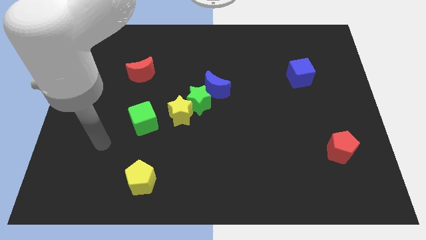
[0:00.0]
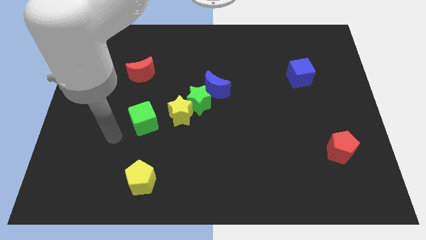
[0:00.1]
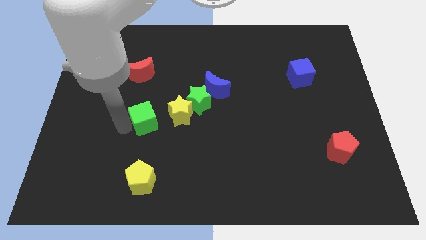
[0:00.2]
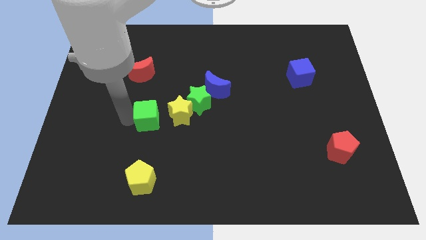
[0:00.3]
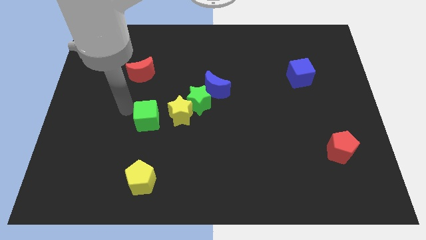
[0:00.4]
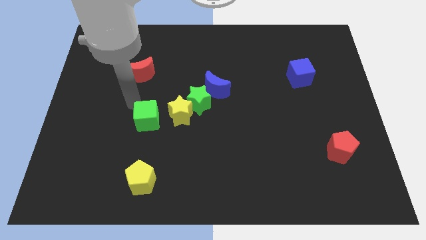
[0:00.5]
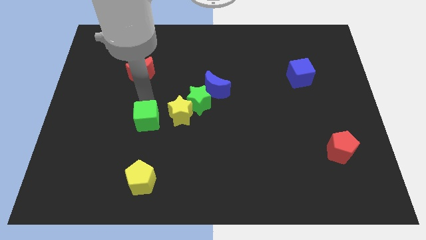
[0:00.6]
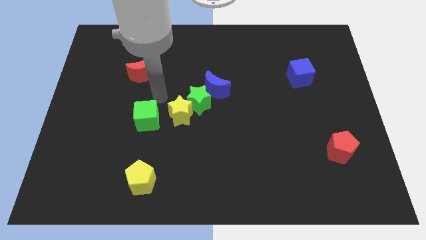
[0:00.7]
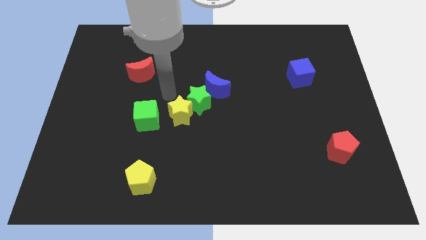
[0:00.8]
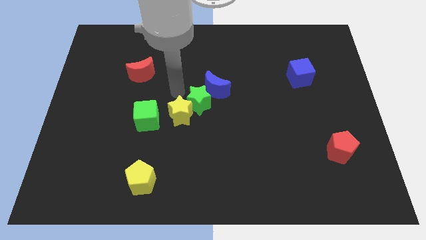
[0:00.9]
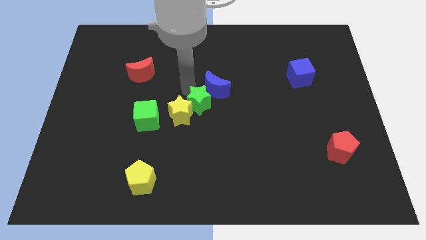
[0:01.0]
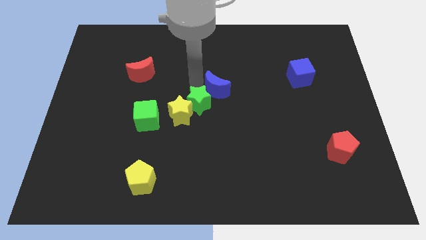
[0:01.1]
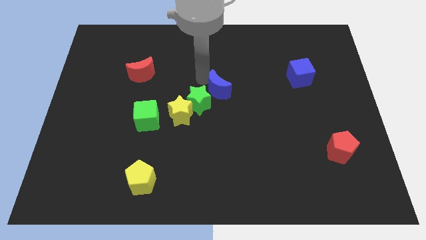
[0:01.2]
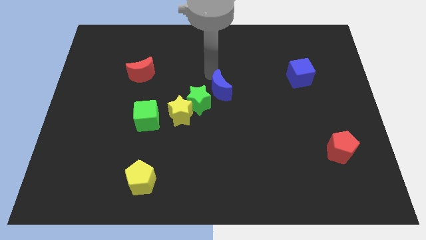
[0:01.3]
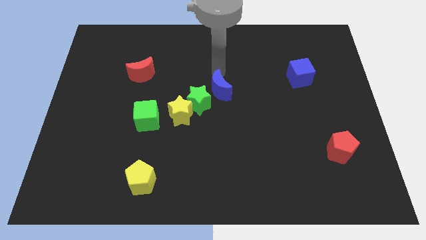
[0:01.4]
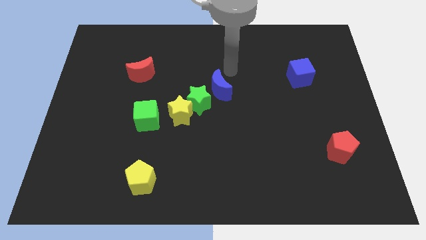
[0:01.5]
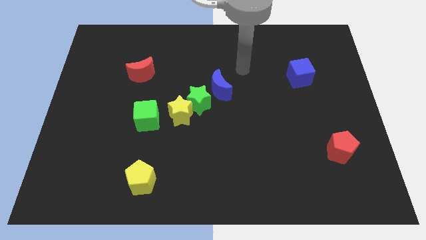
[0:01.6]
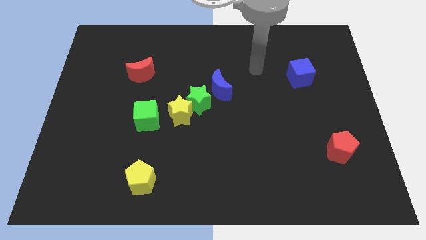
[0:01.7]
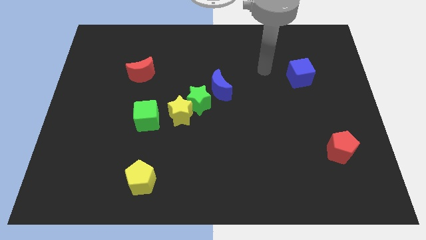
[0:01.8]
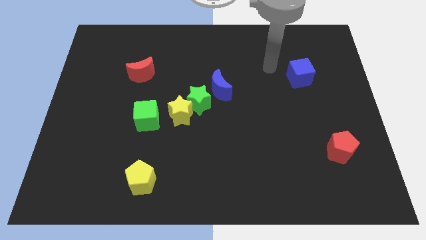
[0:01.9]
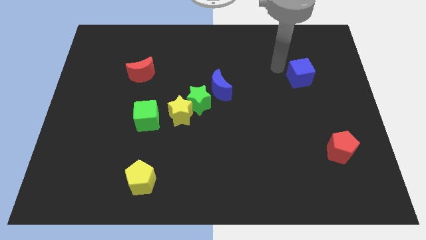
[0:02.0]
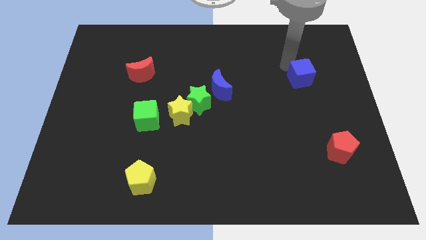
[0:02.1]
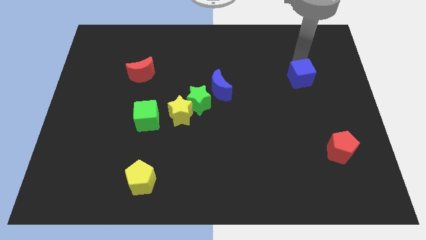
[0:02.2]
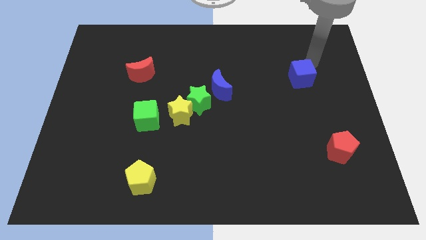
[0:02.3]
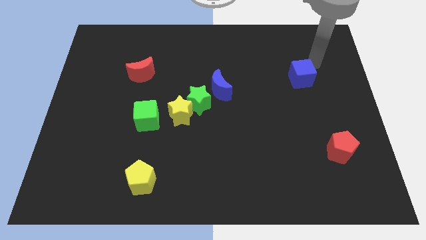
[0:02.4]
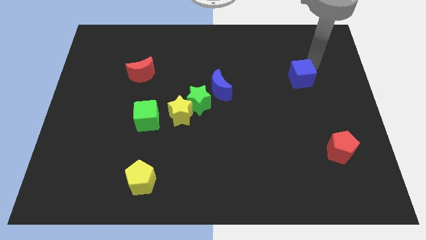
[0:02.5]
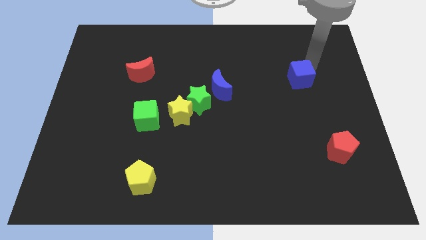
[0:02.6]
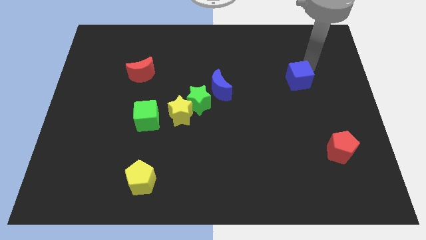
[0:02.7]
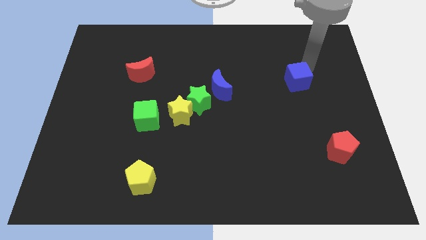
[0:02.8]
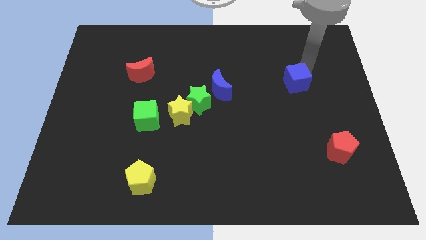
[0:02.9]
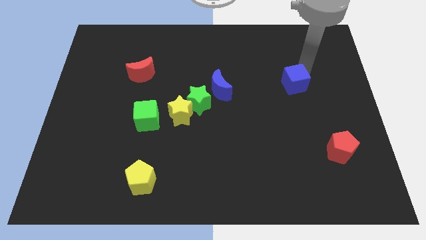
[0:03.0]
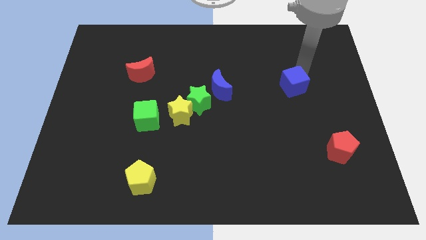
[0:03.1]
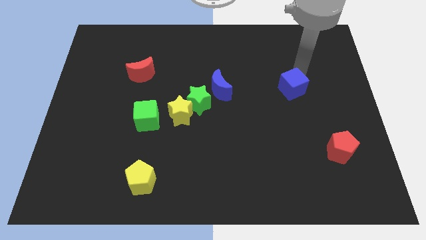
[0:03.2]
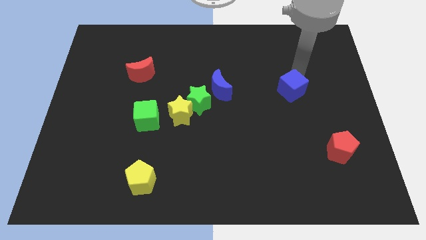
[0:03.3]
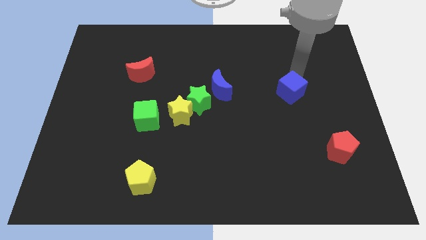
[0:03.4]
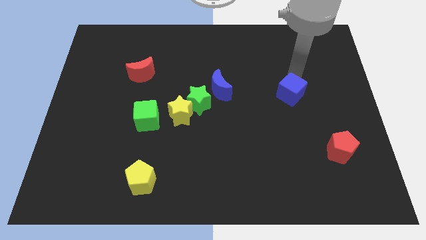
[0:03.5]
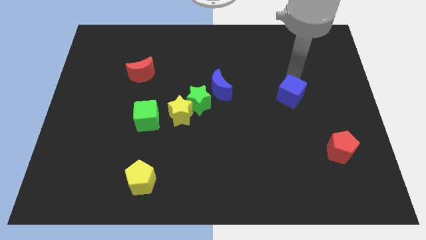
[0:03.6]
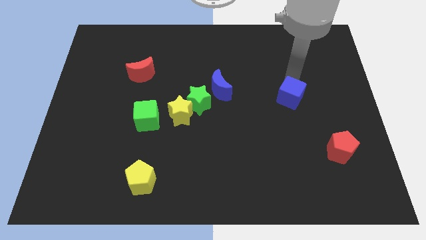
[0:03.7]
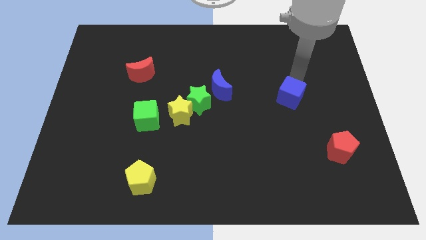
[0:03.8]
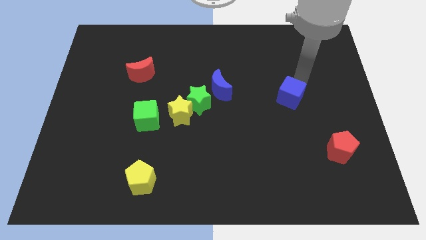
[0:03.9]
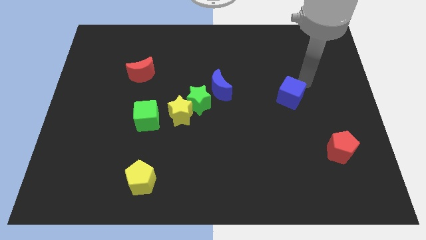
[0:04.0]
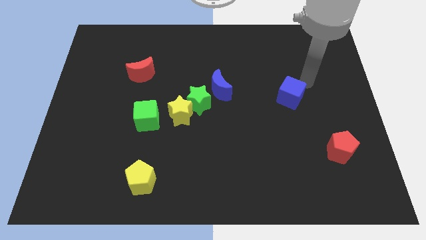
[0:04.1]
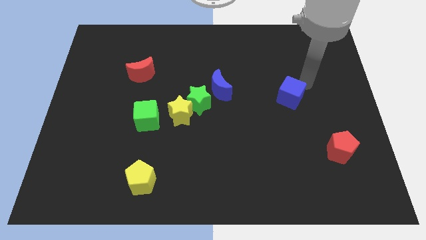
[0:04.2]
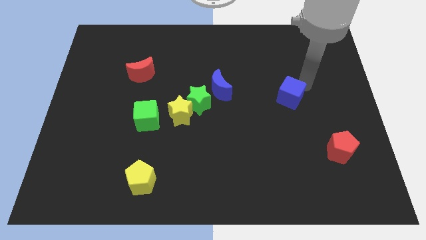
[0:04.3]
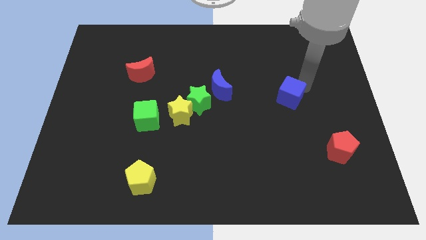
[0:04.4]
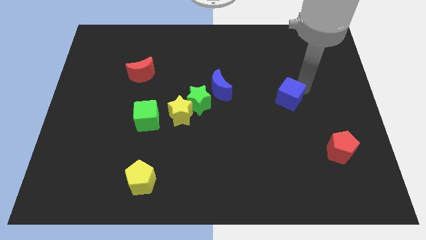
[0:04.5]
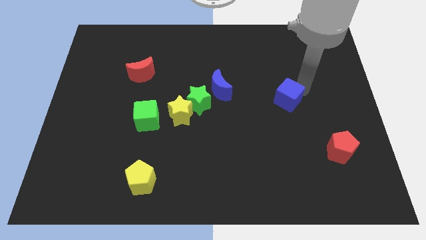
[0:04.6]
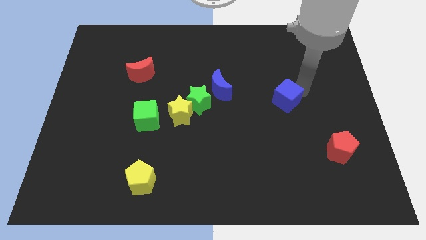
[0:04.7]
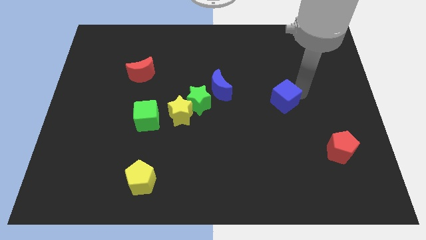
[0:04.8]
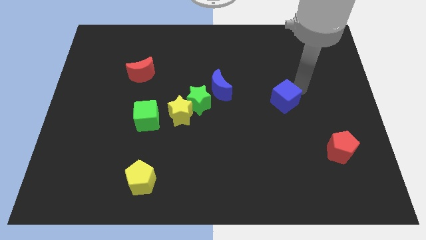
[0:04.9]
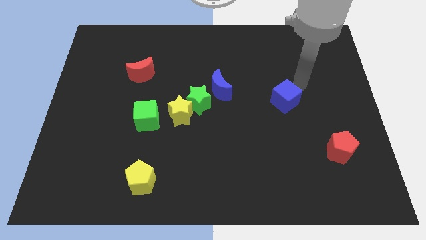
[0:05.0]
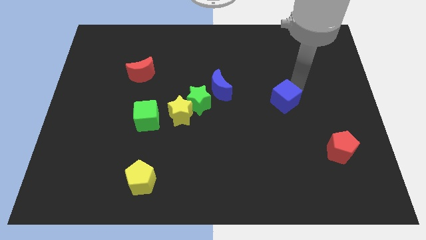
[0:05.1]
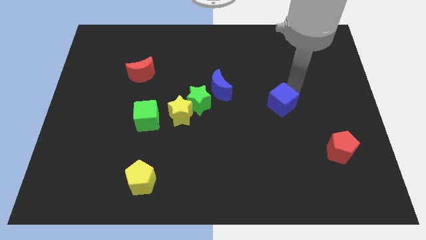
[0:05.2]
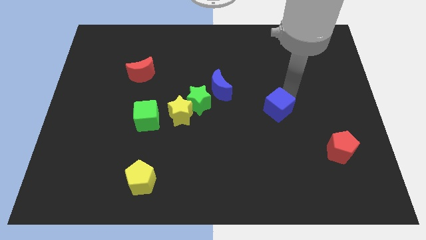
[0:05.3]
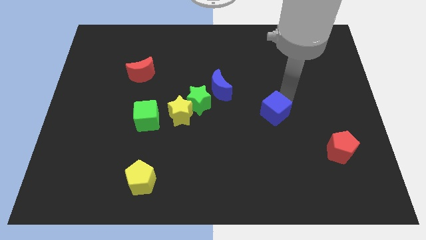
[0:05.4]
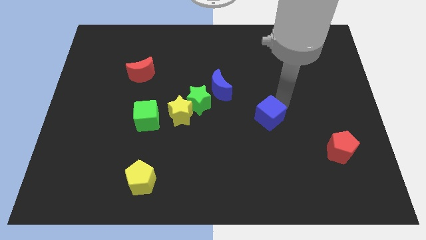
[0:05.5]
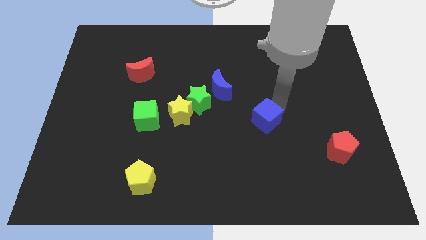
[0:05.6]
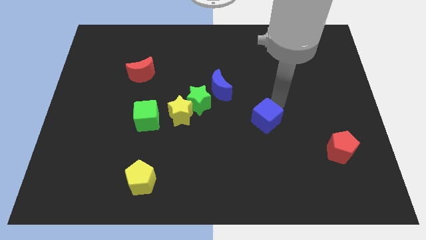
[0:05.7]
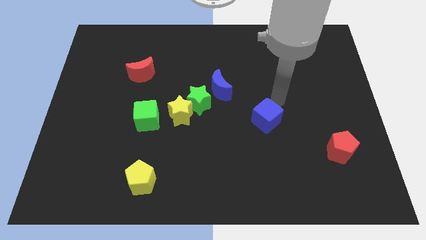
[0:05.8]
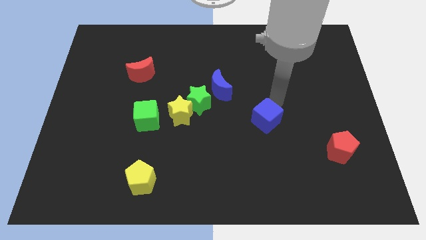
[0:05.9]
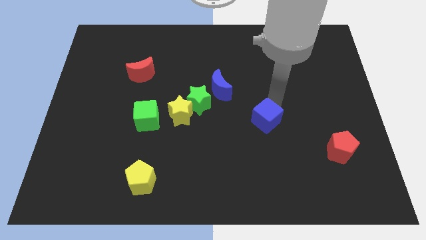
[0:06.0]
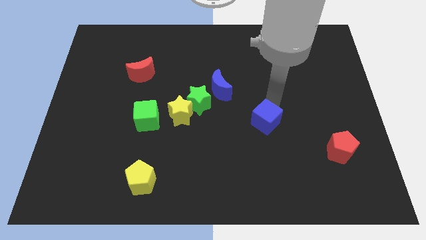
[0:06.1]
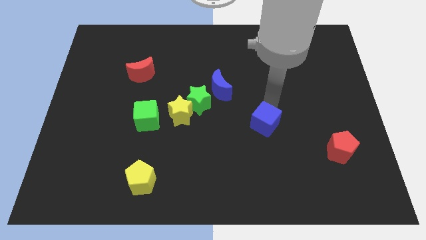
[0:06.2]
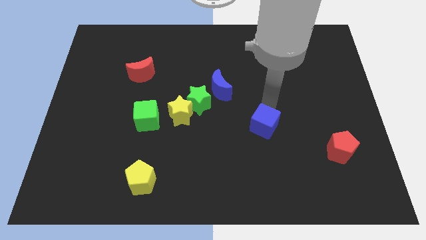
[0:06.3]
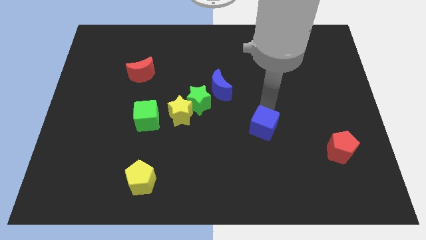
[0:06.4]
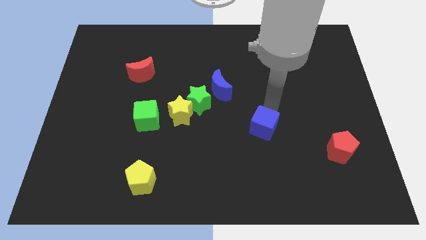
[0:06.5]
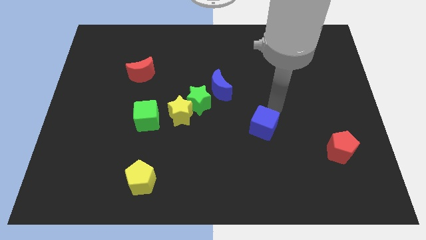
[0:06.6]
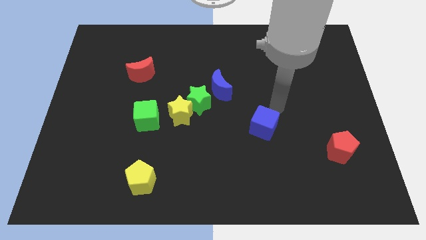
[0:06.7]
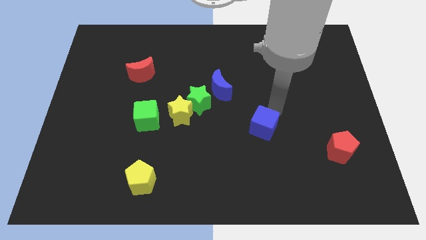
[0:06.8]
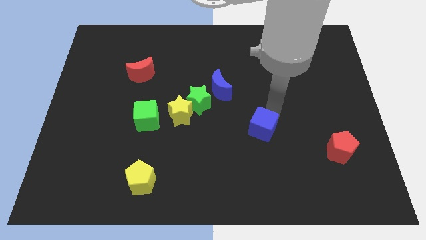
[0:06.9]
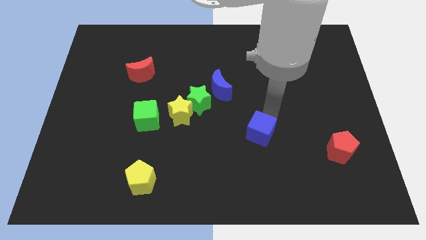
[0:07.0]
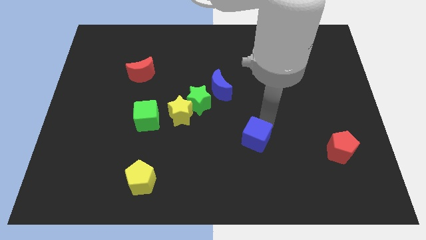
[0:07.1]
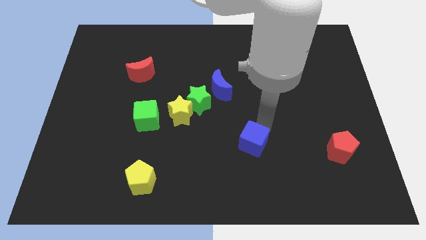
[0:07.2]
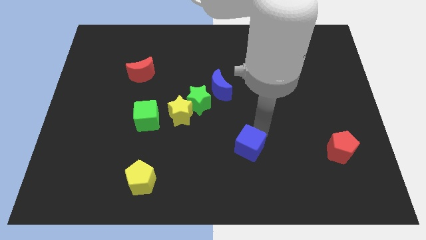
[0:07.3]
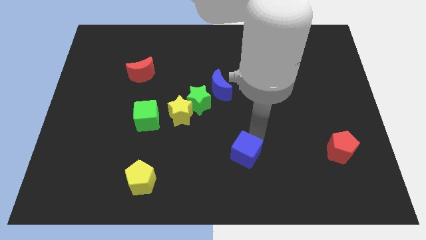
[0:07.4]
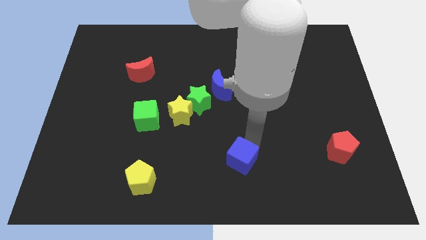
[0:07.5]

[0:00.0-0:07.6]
put the blue cube to the bottom side

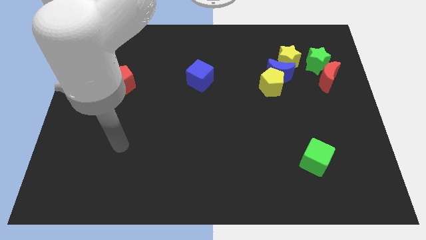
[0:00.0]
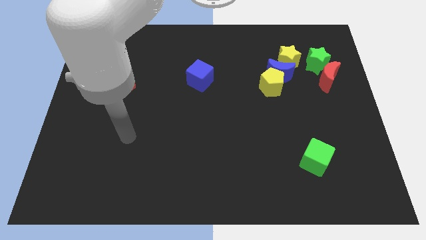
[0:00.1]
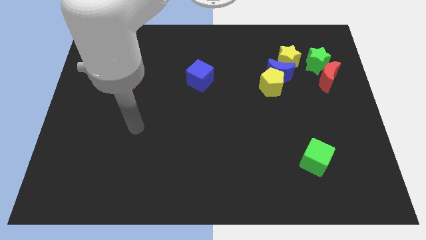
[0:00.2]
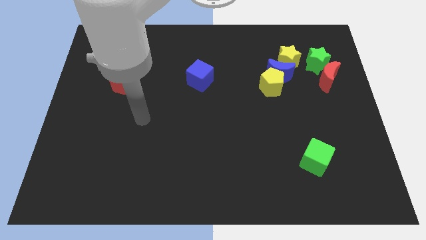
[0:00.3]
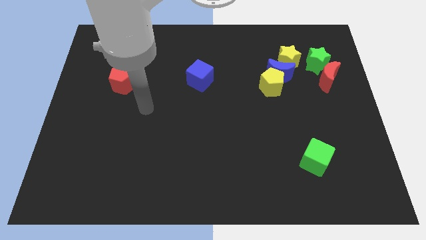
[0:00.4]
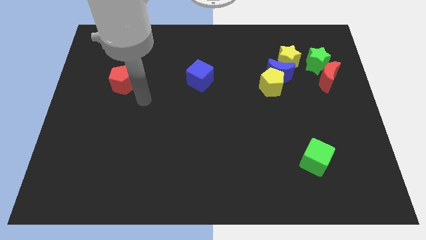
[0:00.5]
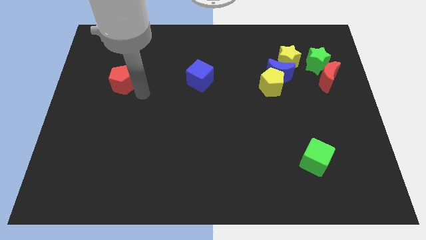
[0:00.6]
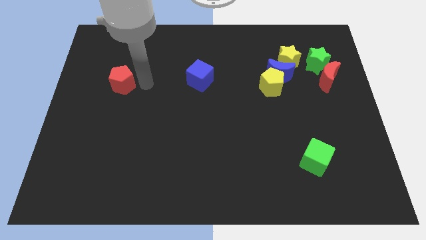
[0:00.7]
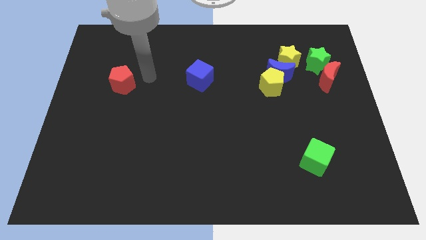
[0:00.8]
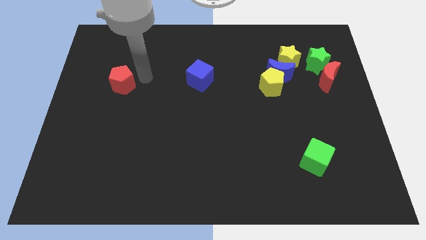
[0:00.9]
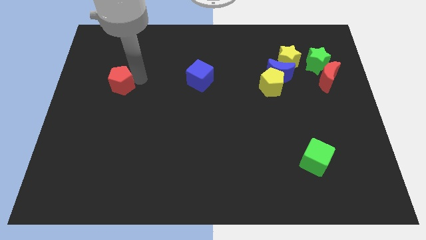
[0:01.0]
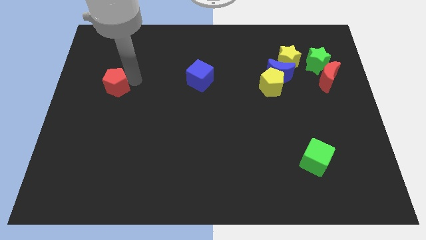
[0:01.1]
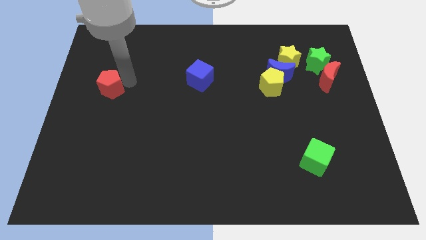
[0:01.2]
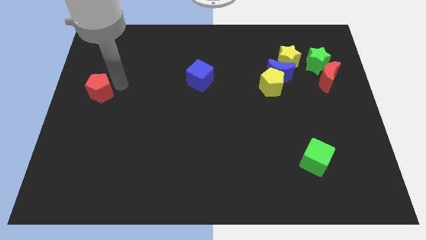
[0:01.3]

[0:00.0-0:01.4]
push the red pentagon to the left side
